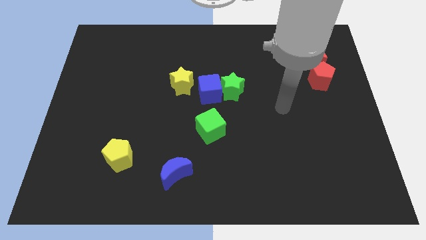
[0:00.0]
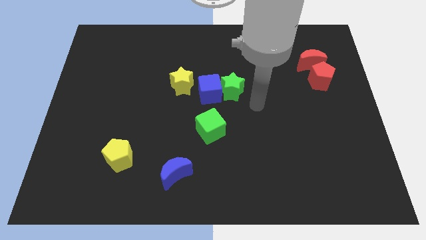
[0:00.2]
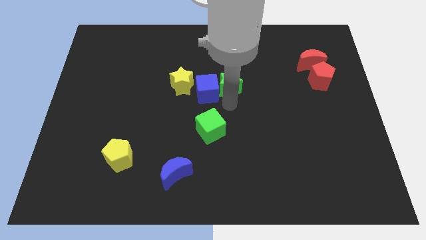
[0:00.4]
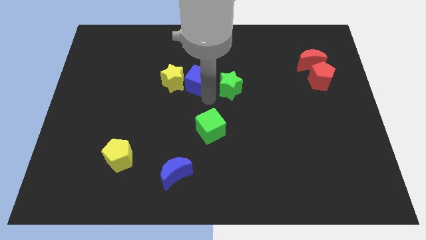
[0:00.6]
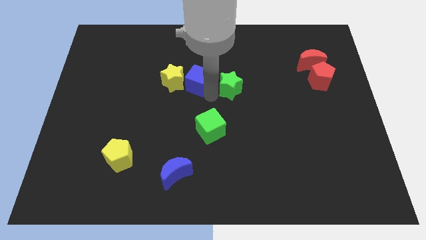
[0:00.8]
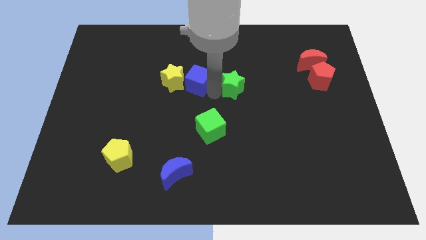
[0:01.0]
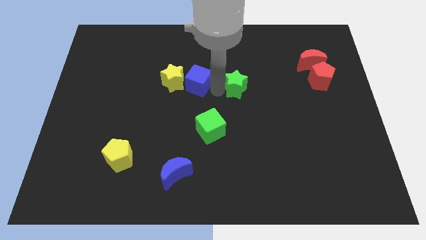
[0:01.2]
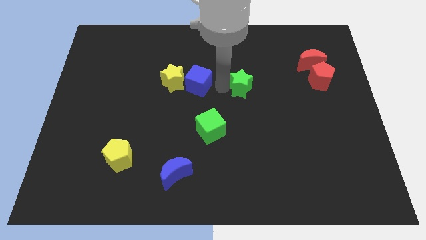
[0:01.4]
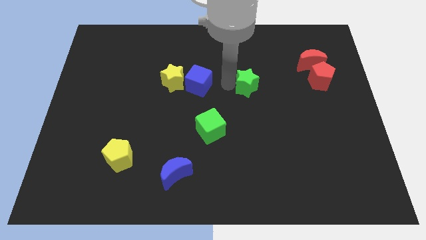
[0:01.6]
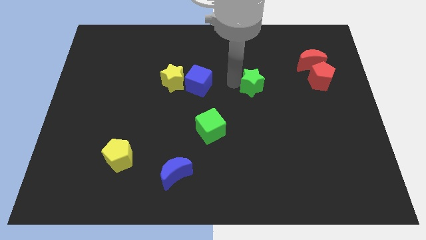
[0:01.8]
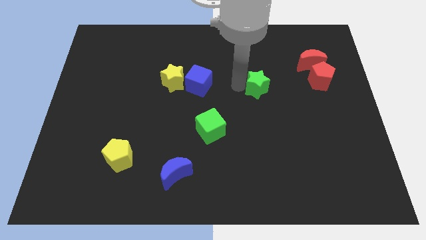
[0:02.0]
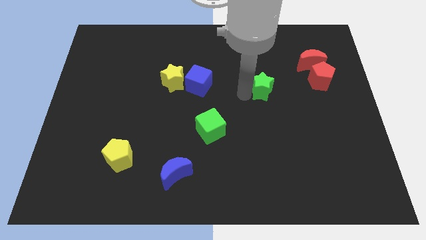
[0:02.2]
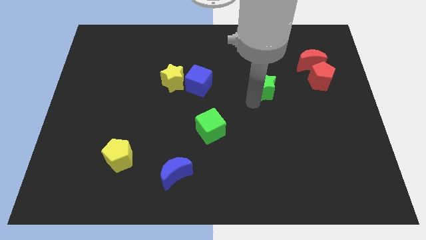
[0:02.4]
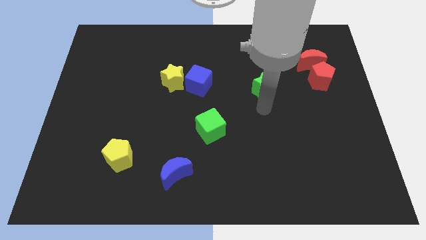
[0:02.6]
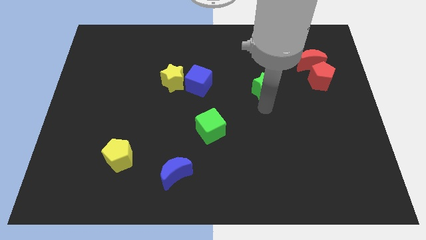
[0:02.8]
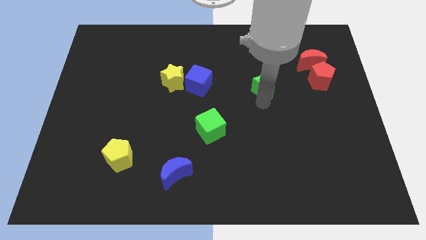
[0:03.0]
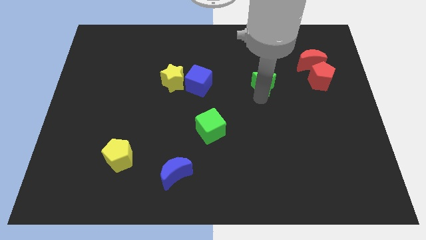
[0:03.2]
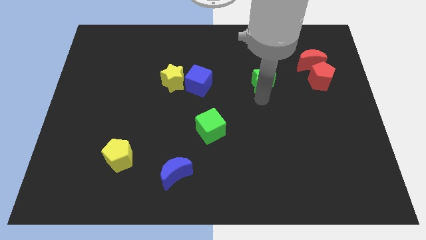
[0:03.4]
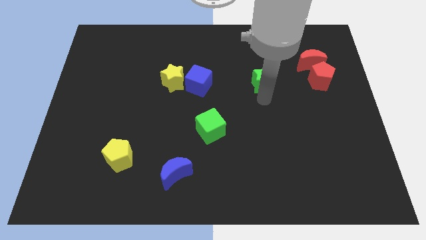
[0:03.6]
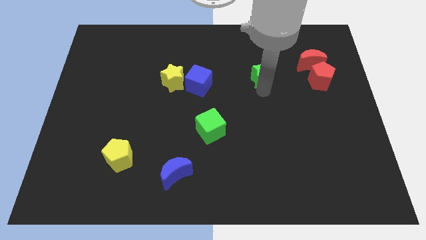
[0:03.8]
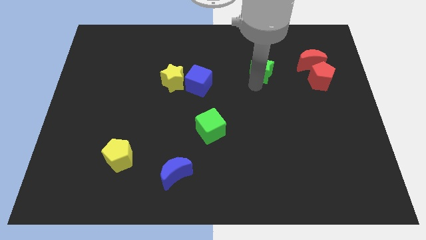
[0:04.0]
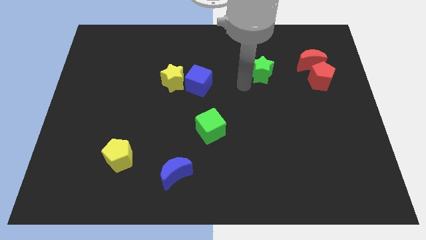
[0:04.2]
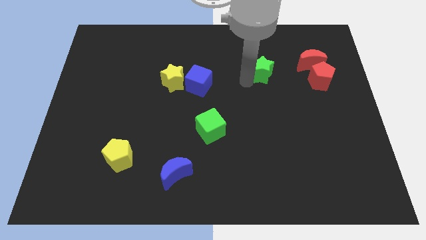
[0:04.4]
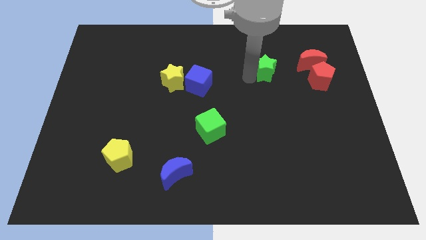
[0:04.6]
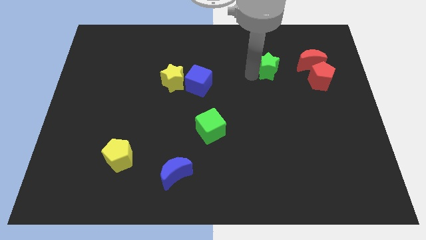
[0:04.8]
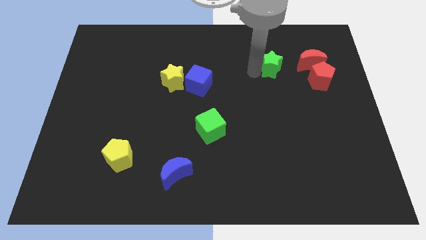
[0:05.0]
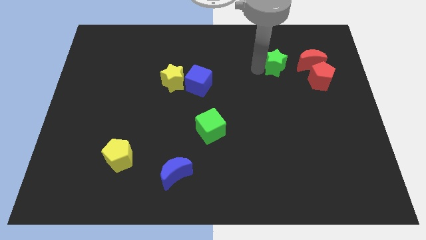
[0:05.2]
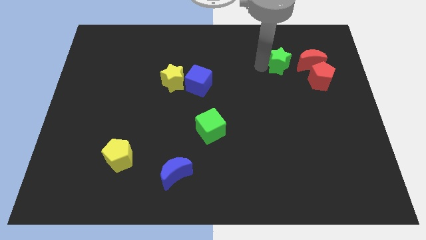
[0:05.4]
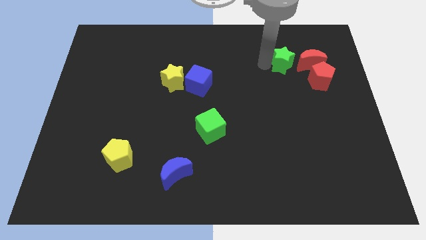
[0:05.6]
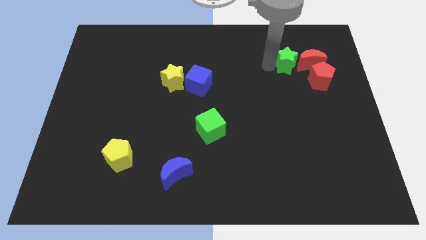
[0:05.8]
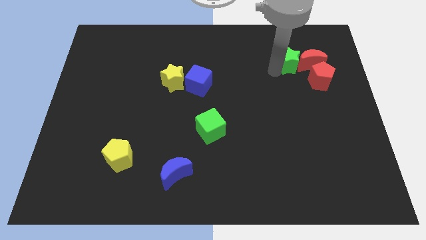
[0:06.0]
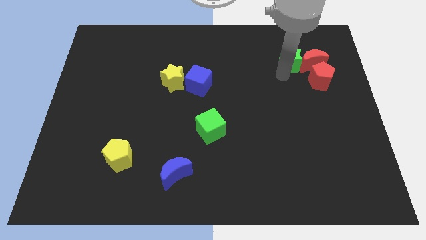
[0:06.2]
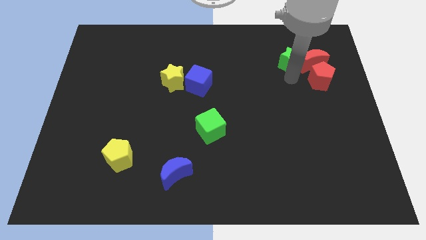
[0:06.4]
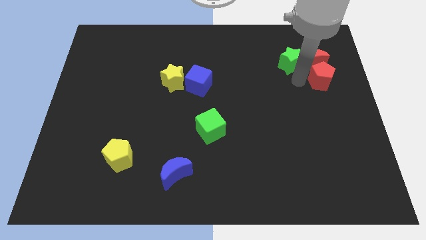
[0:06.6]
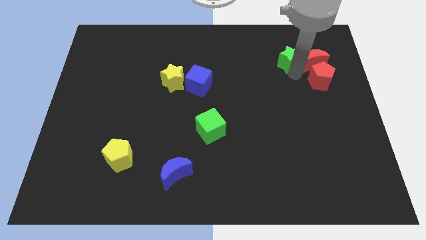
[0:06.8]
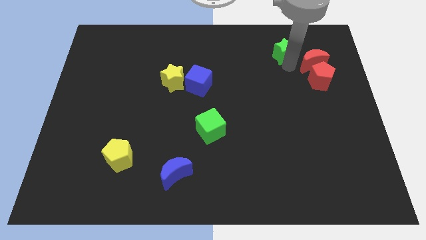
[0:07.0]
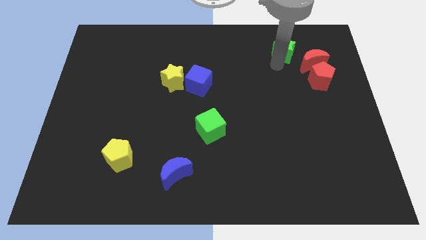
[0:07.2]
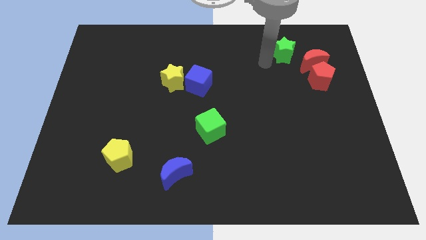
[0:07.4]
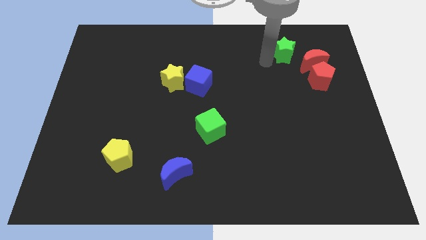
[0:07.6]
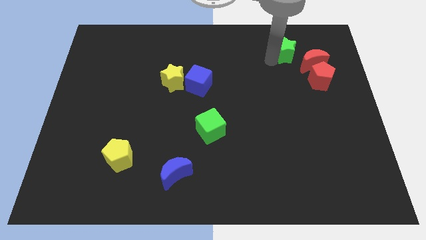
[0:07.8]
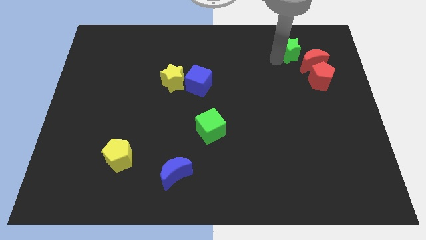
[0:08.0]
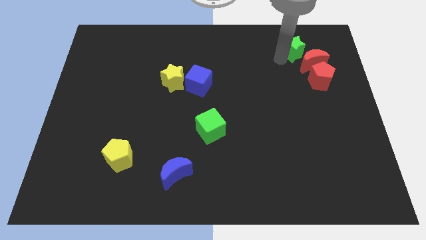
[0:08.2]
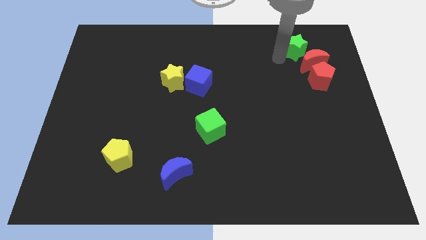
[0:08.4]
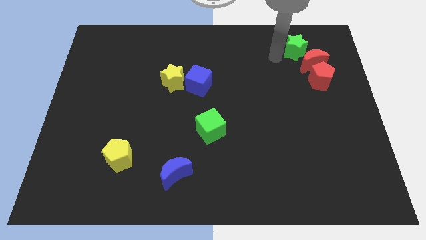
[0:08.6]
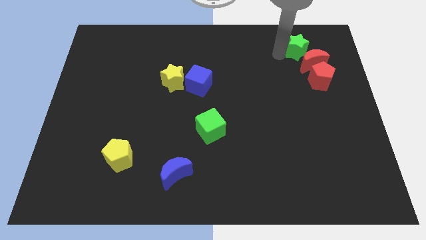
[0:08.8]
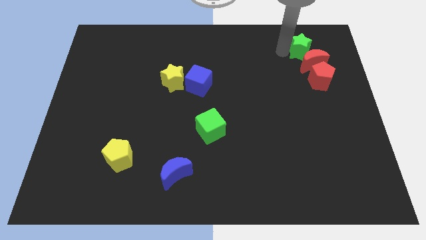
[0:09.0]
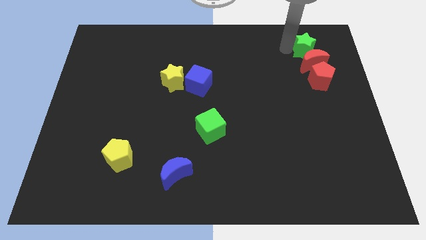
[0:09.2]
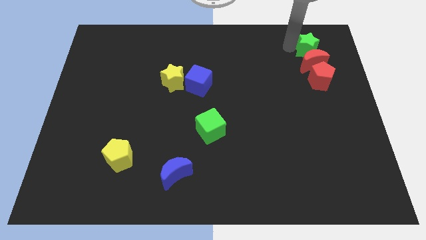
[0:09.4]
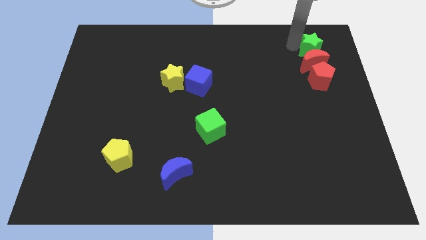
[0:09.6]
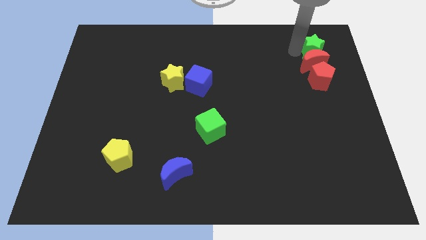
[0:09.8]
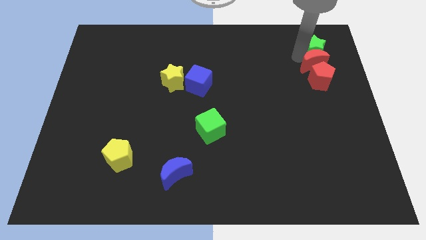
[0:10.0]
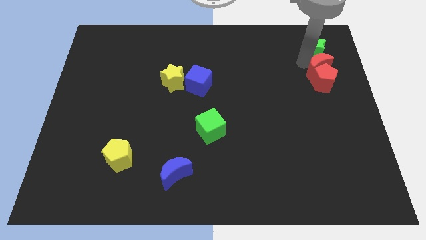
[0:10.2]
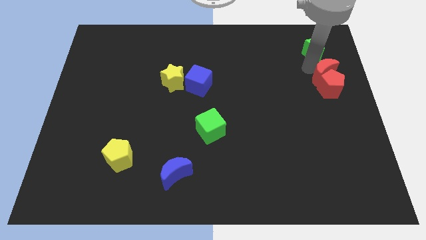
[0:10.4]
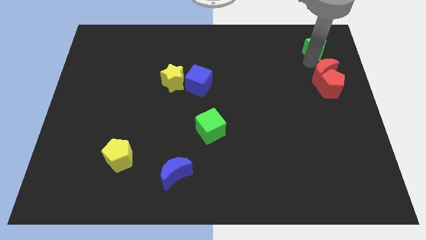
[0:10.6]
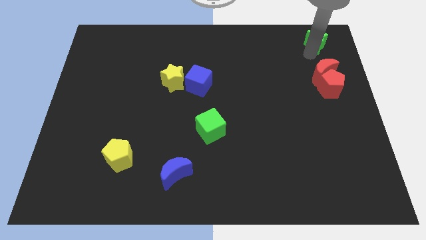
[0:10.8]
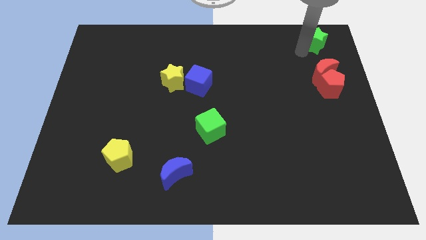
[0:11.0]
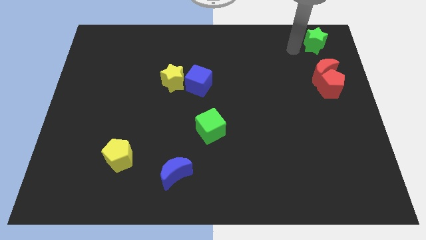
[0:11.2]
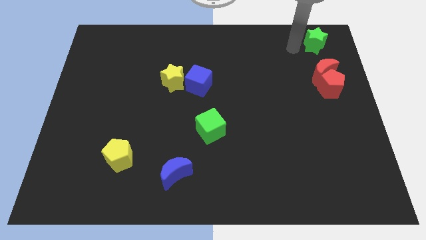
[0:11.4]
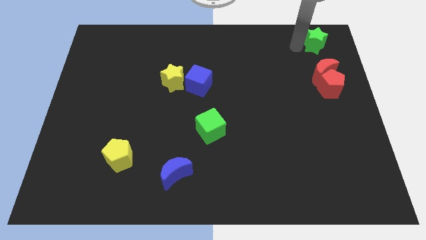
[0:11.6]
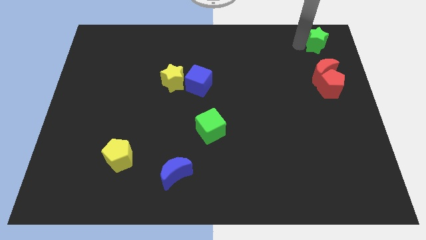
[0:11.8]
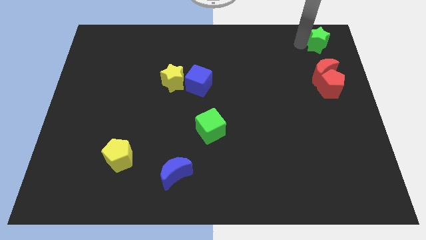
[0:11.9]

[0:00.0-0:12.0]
push the green star to the top right

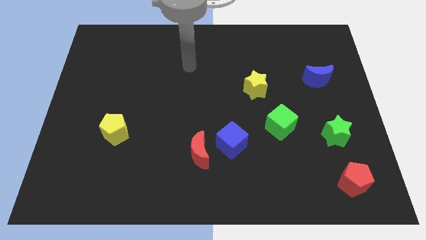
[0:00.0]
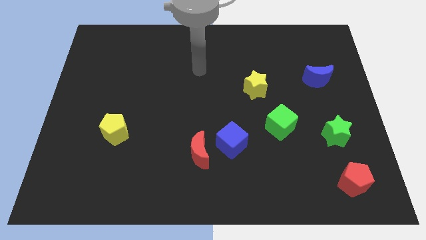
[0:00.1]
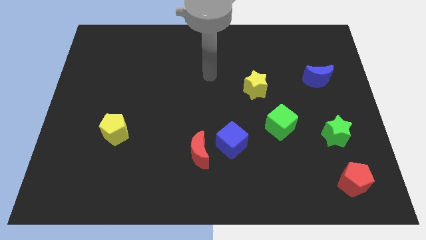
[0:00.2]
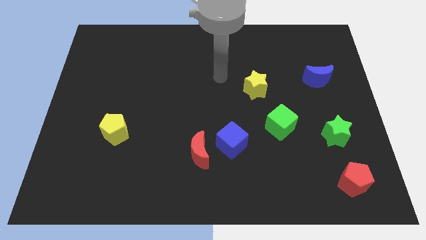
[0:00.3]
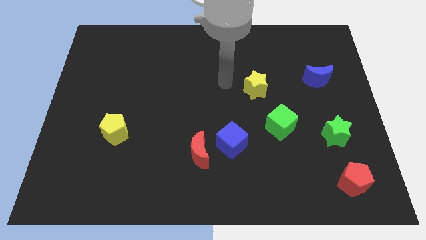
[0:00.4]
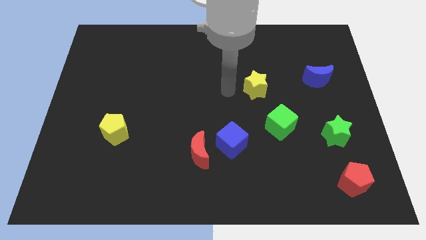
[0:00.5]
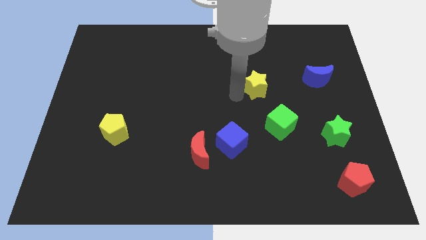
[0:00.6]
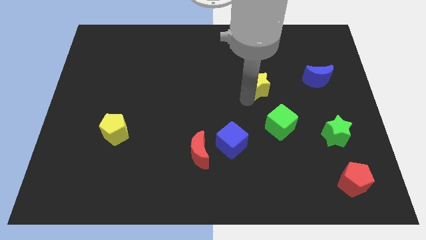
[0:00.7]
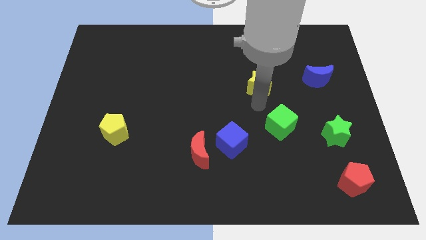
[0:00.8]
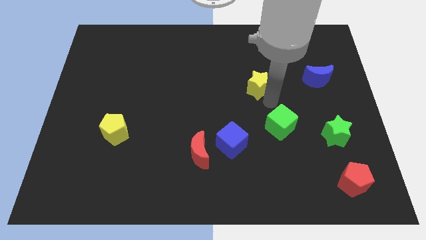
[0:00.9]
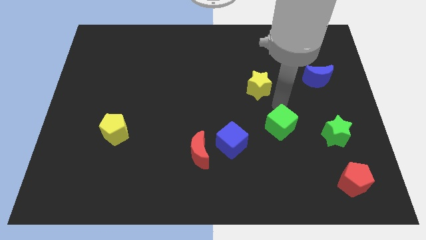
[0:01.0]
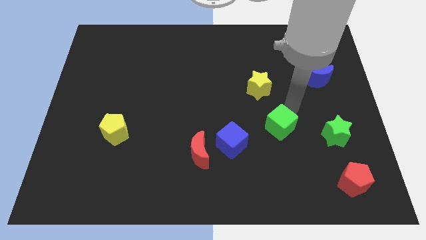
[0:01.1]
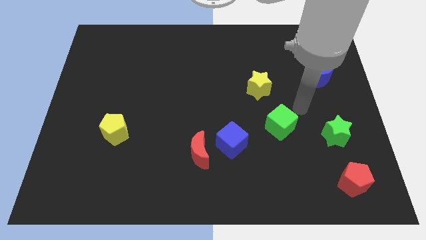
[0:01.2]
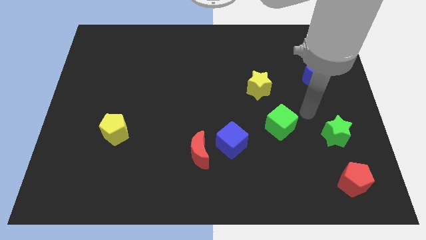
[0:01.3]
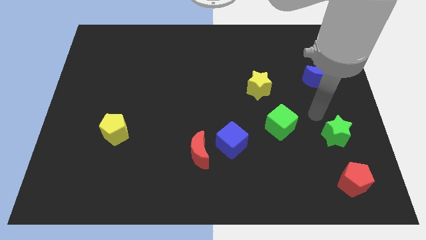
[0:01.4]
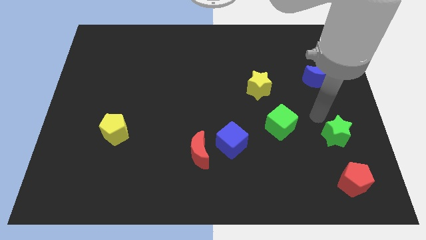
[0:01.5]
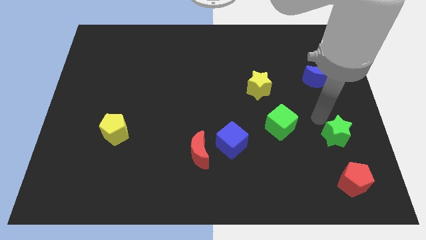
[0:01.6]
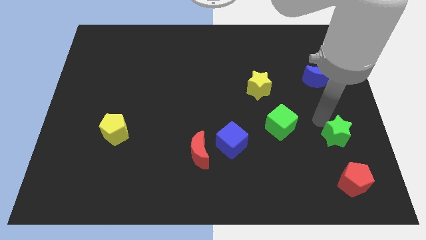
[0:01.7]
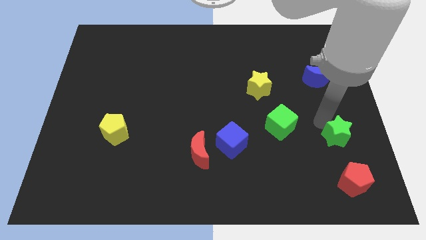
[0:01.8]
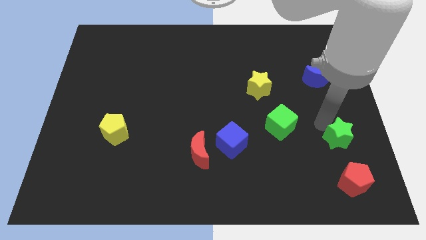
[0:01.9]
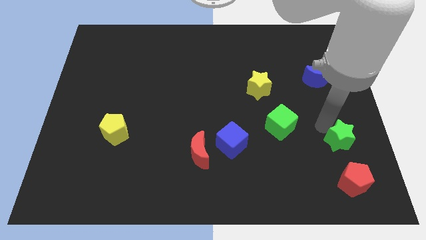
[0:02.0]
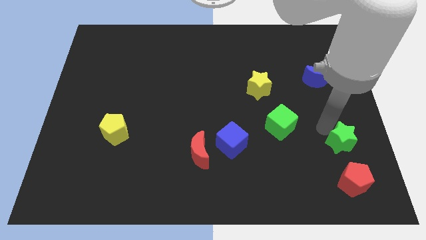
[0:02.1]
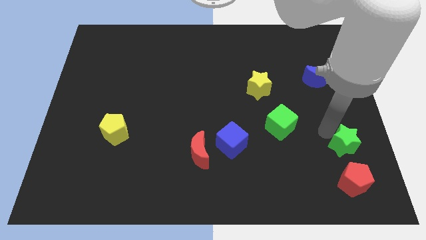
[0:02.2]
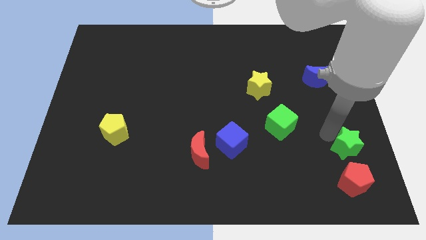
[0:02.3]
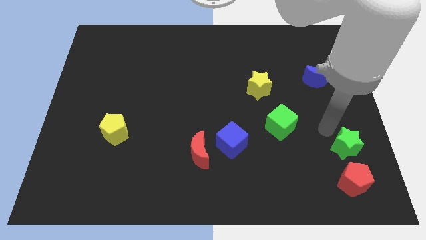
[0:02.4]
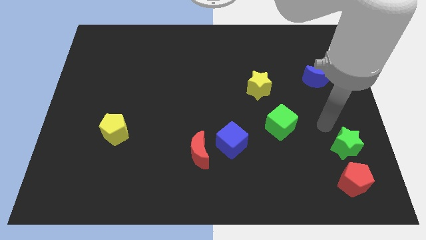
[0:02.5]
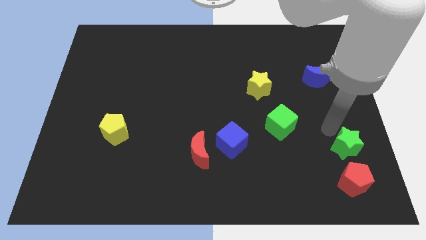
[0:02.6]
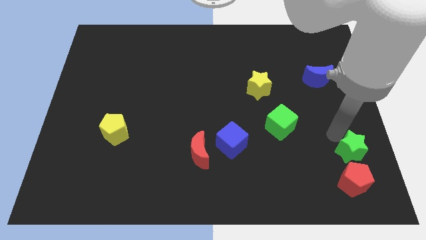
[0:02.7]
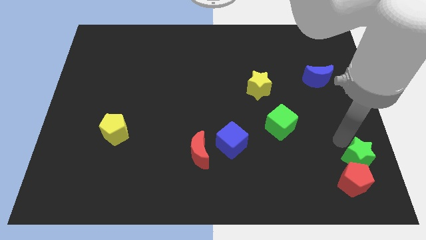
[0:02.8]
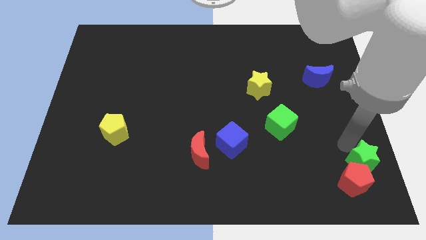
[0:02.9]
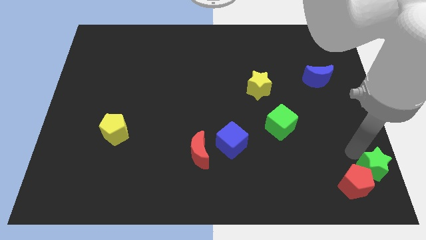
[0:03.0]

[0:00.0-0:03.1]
slide the green star to the bottom right corner
